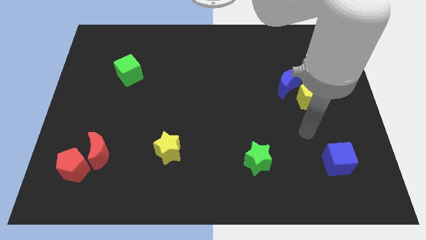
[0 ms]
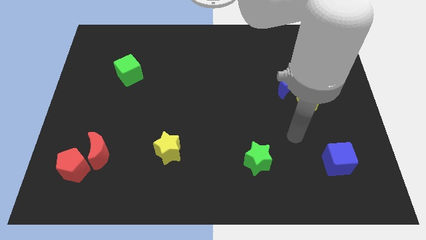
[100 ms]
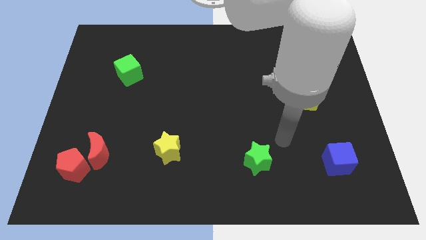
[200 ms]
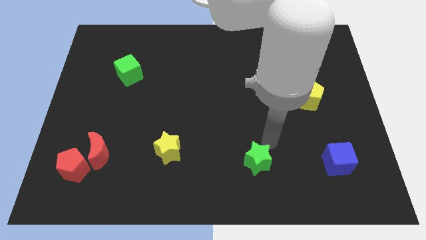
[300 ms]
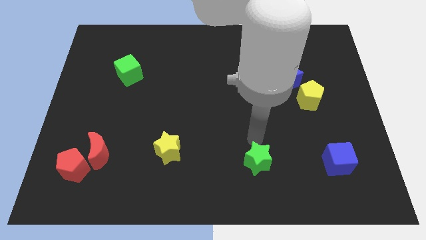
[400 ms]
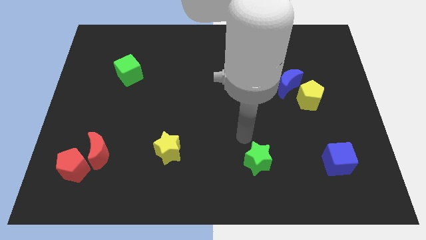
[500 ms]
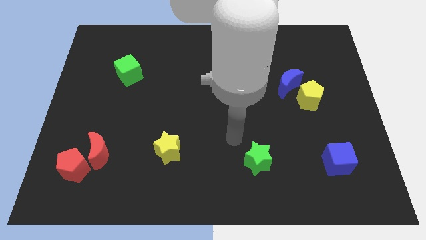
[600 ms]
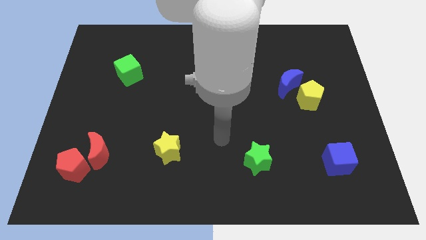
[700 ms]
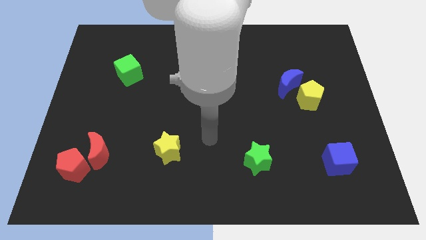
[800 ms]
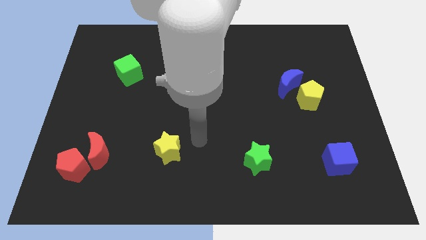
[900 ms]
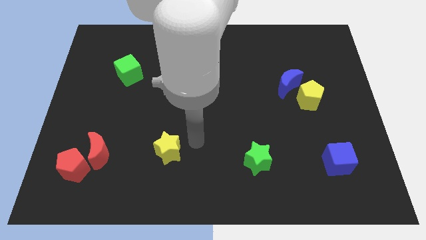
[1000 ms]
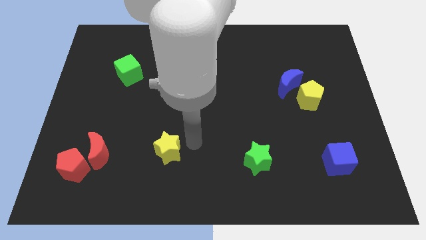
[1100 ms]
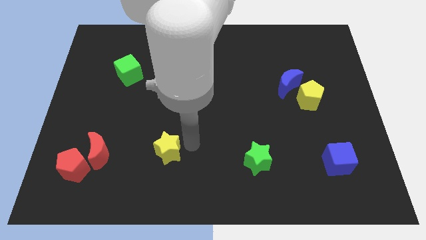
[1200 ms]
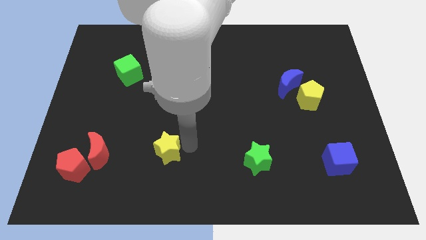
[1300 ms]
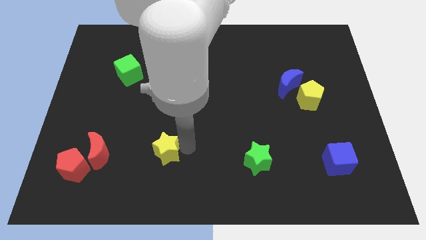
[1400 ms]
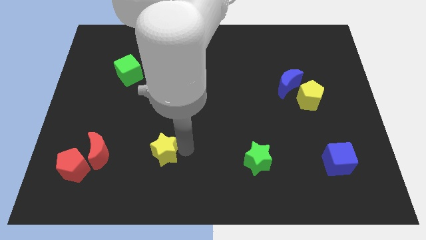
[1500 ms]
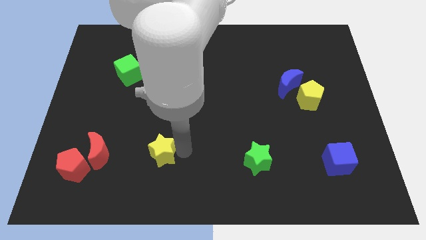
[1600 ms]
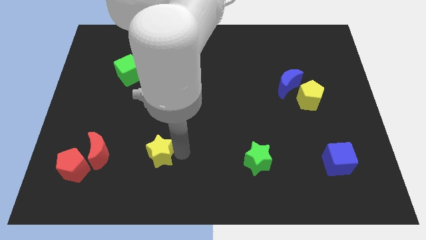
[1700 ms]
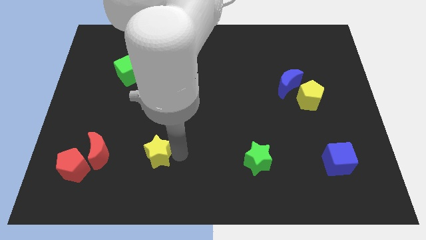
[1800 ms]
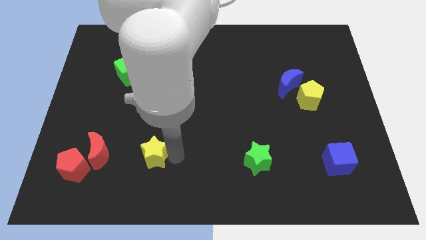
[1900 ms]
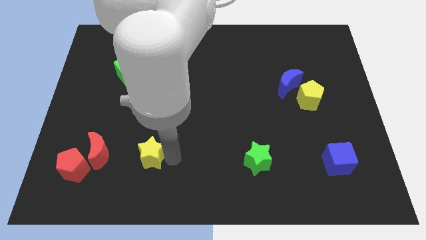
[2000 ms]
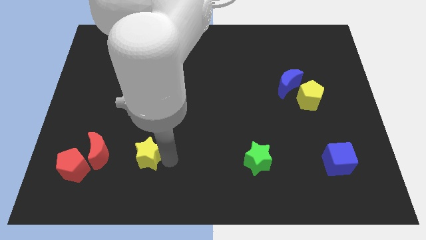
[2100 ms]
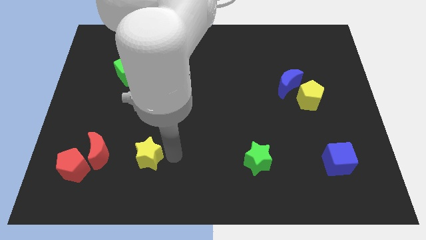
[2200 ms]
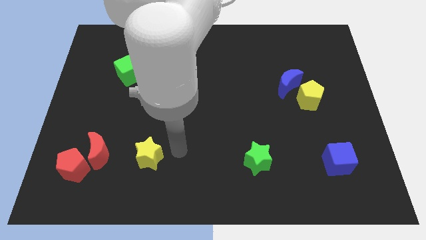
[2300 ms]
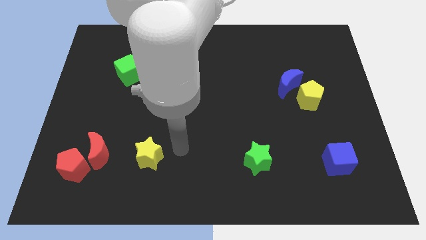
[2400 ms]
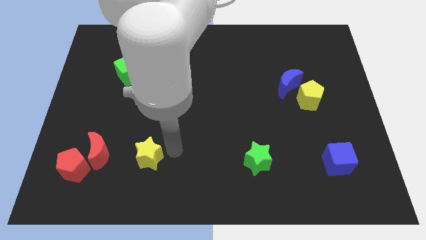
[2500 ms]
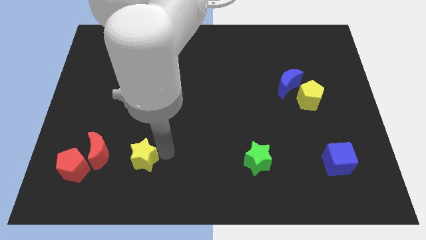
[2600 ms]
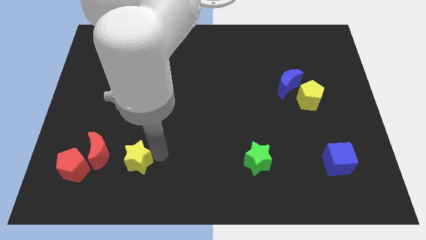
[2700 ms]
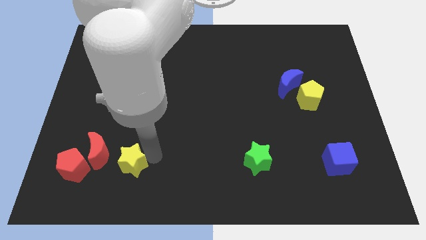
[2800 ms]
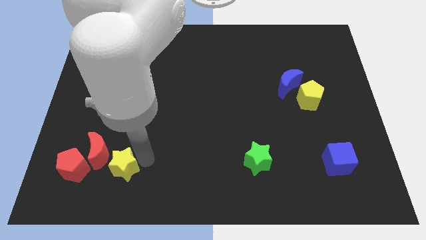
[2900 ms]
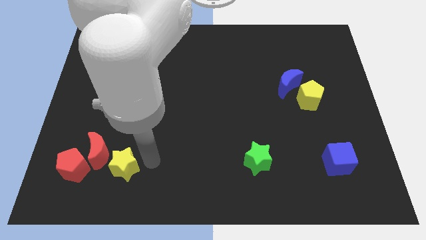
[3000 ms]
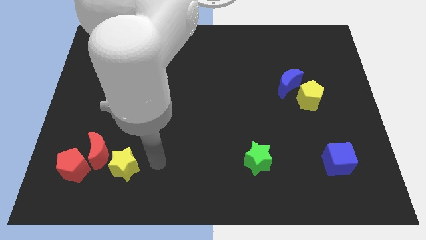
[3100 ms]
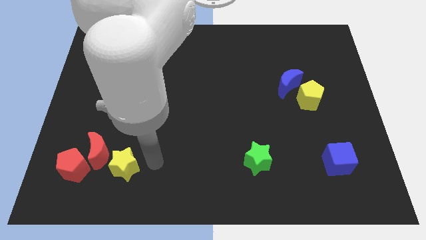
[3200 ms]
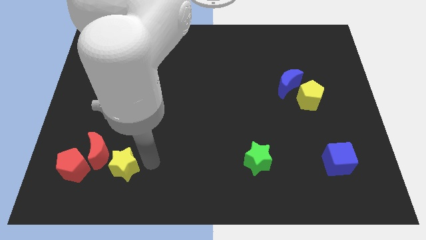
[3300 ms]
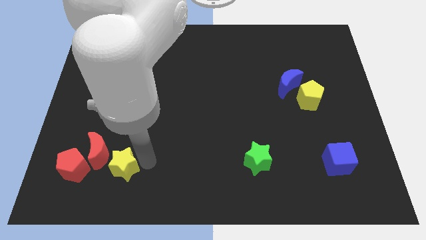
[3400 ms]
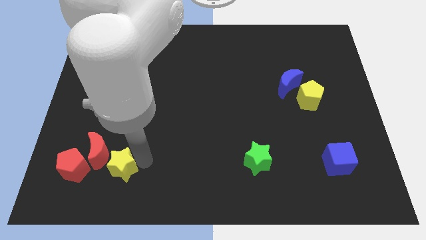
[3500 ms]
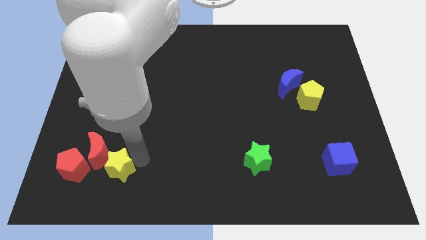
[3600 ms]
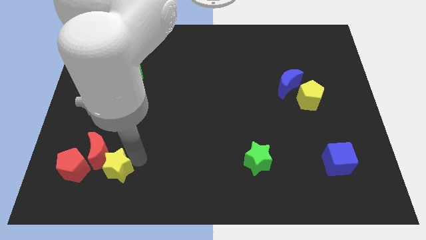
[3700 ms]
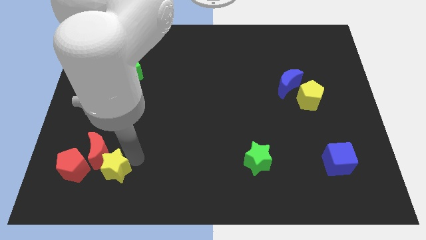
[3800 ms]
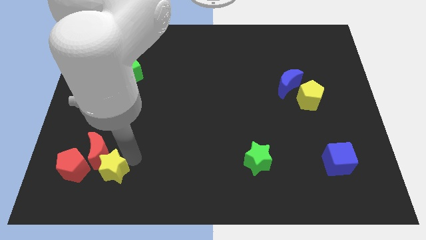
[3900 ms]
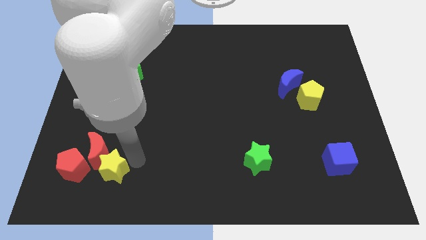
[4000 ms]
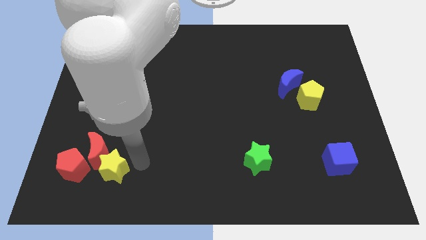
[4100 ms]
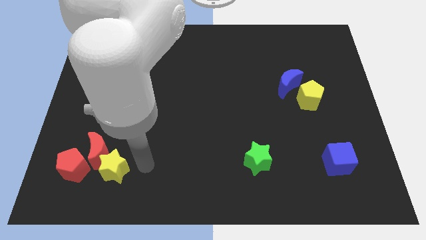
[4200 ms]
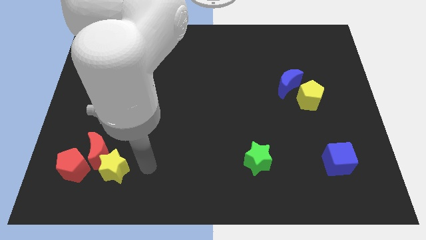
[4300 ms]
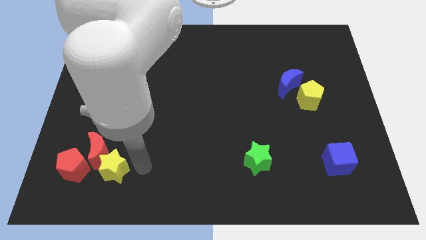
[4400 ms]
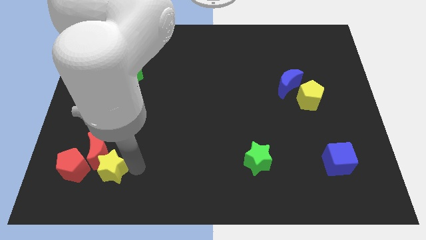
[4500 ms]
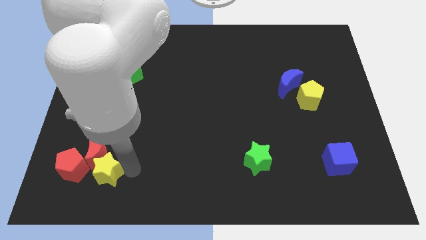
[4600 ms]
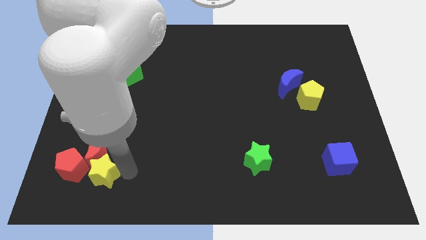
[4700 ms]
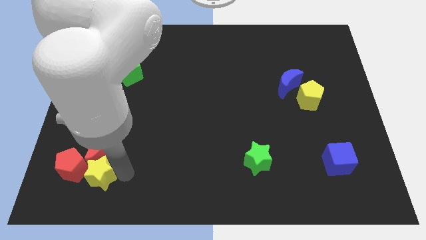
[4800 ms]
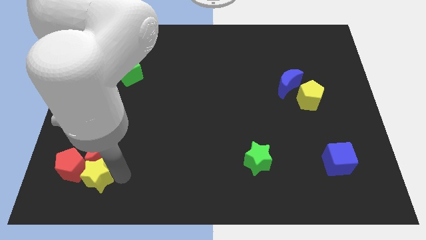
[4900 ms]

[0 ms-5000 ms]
put the yellow star close to the red pentagon

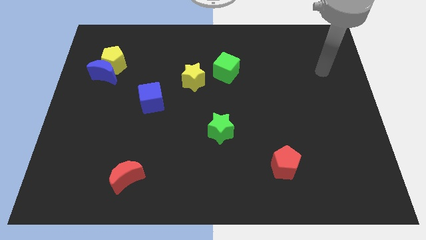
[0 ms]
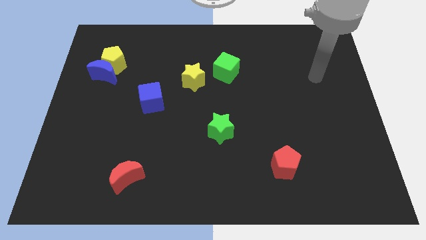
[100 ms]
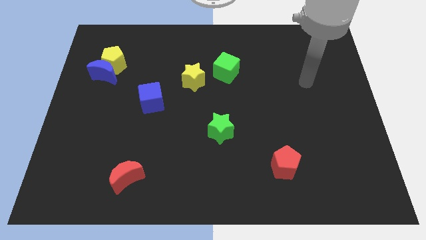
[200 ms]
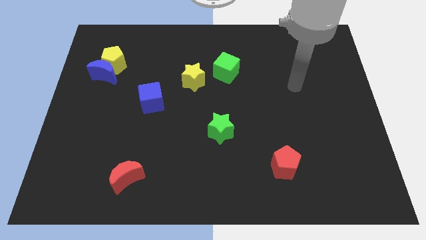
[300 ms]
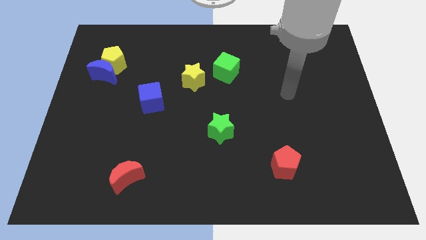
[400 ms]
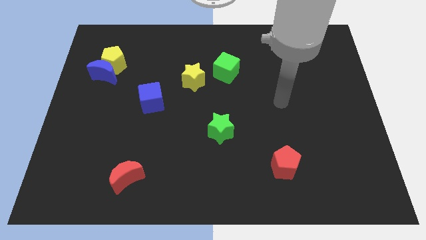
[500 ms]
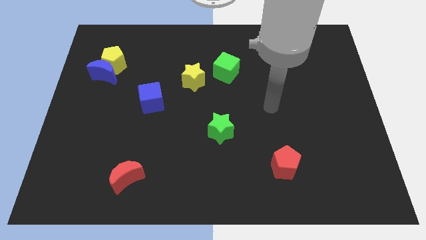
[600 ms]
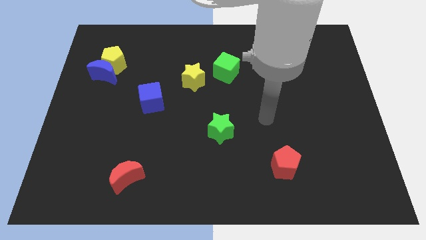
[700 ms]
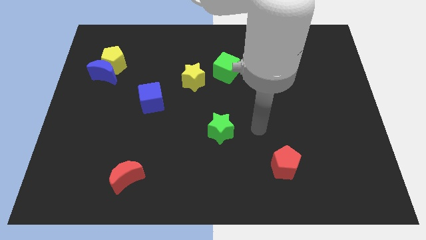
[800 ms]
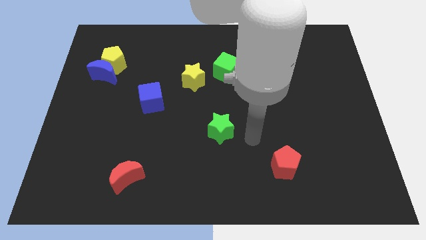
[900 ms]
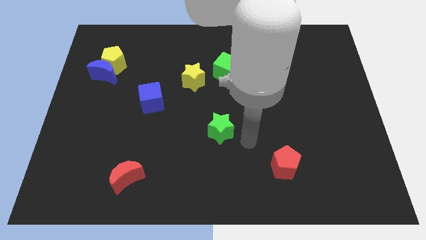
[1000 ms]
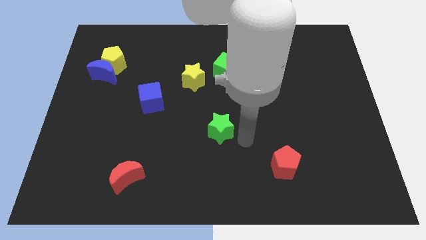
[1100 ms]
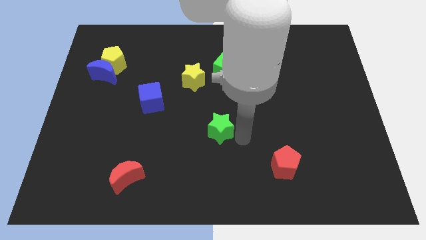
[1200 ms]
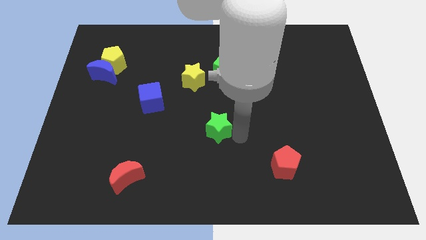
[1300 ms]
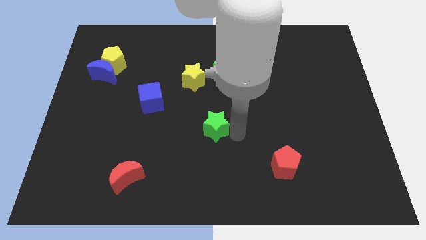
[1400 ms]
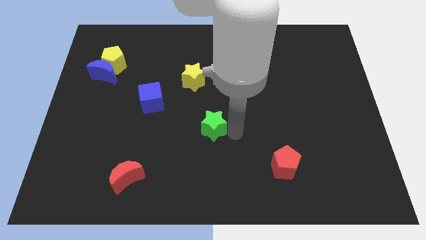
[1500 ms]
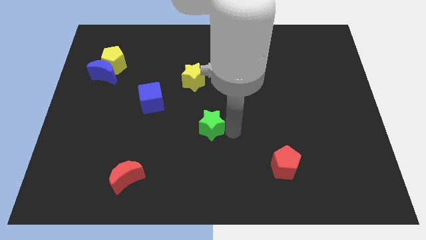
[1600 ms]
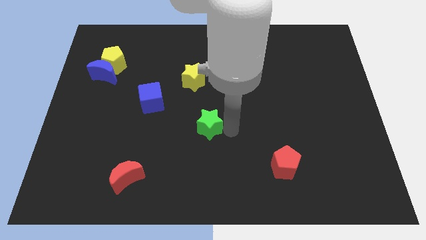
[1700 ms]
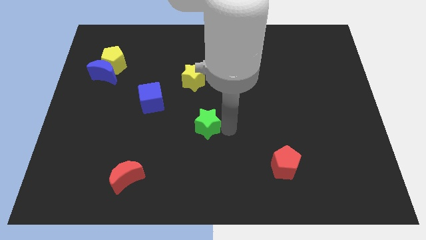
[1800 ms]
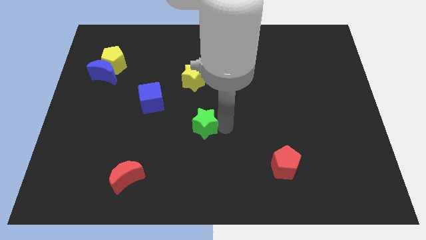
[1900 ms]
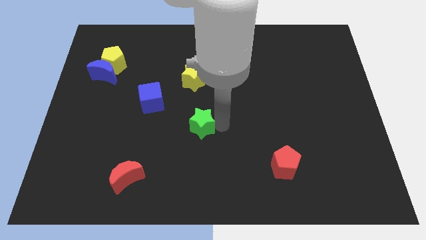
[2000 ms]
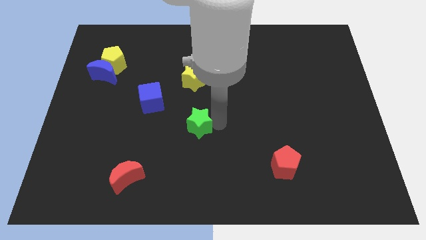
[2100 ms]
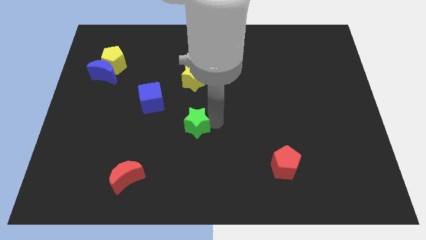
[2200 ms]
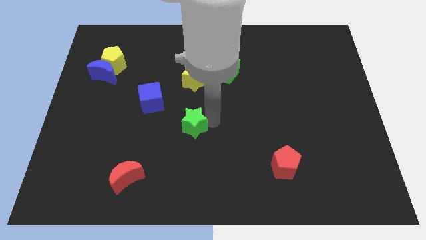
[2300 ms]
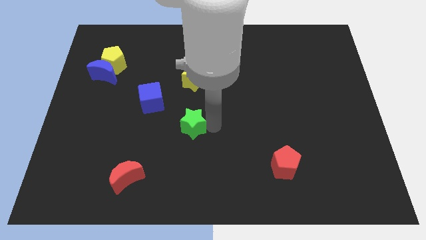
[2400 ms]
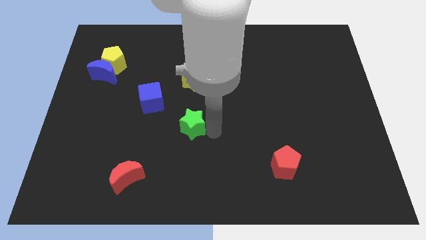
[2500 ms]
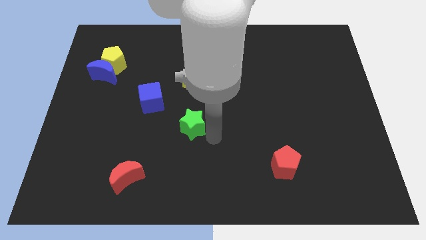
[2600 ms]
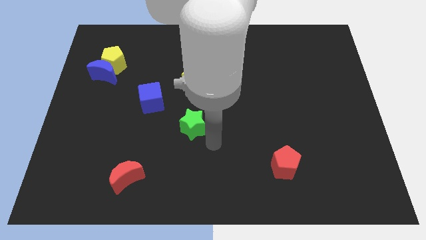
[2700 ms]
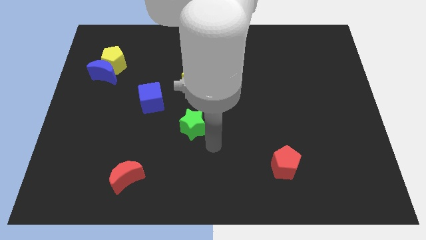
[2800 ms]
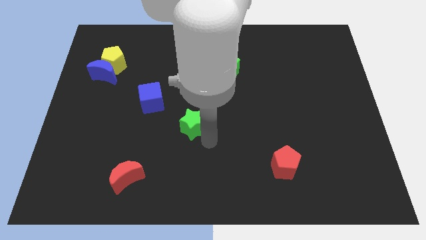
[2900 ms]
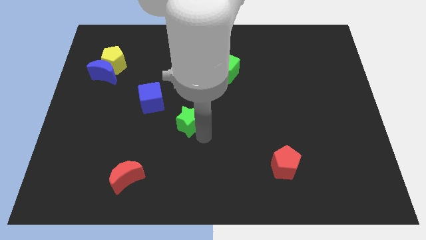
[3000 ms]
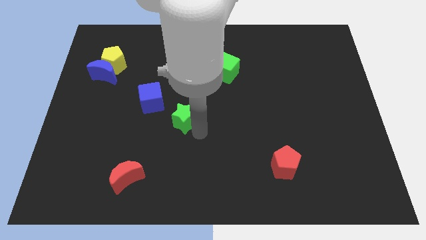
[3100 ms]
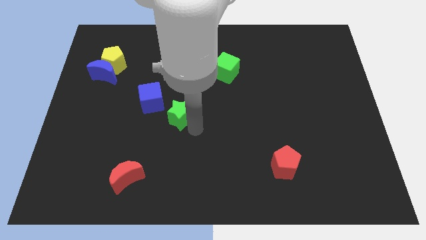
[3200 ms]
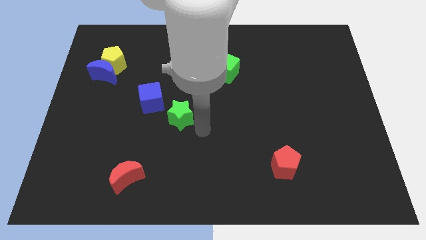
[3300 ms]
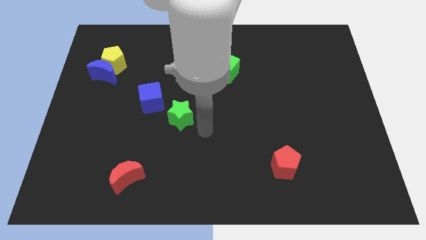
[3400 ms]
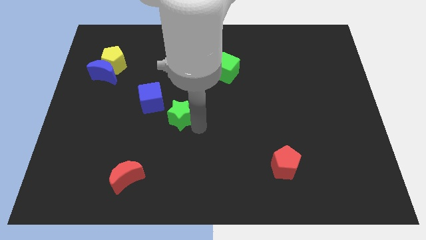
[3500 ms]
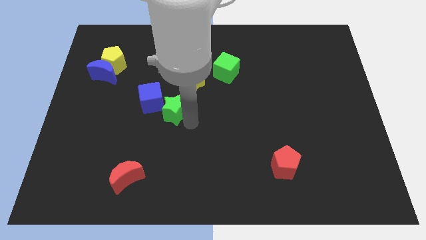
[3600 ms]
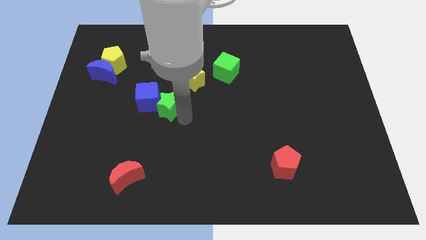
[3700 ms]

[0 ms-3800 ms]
put the green star to the blue cube
